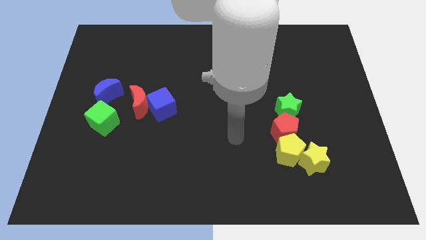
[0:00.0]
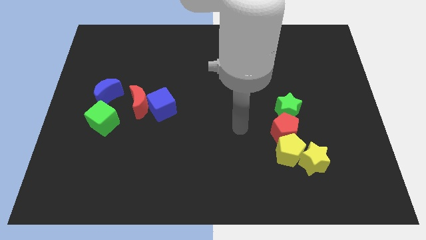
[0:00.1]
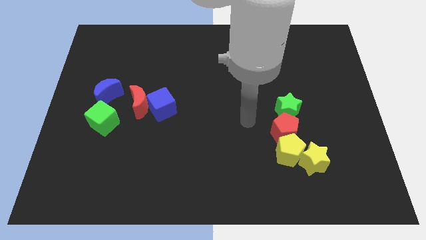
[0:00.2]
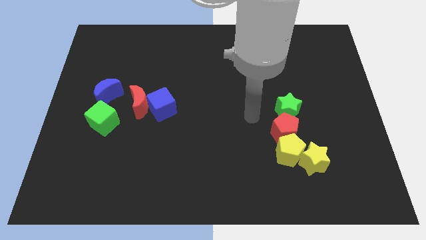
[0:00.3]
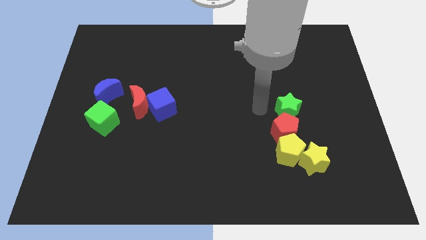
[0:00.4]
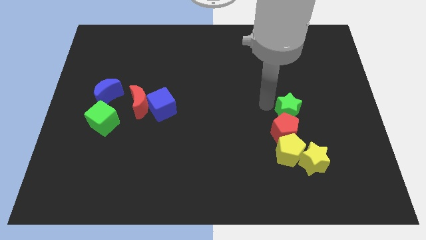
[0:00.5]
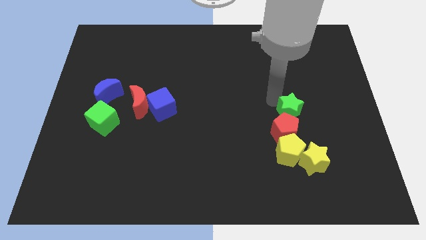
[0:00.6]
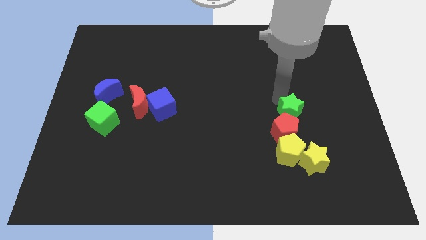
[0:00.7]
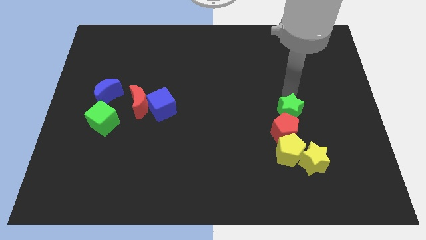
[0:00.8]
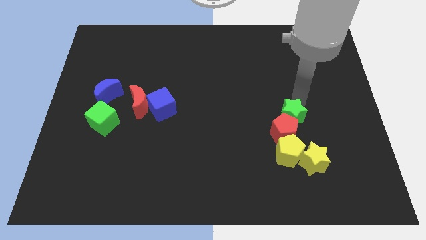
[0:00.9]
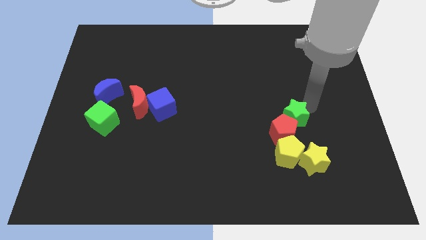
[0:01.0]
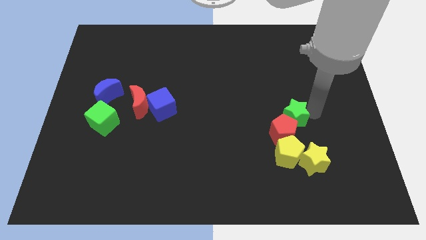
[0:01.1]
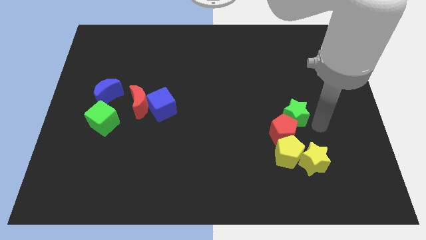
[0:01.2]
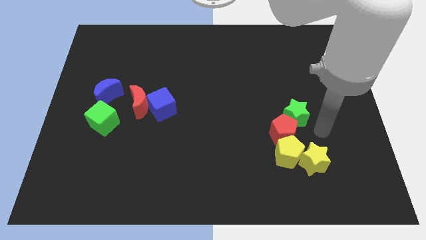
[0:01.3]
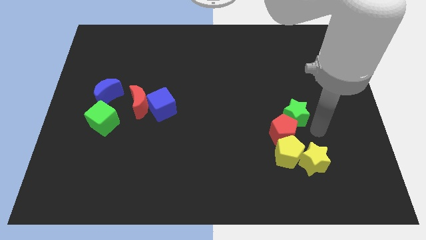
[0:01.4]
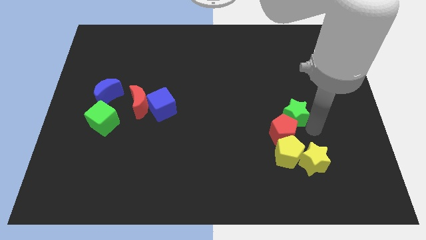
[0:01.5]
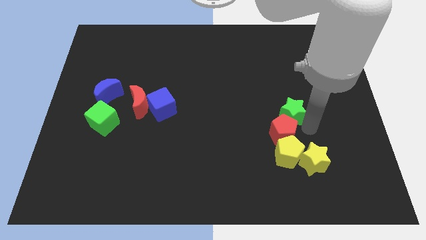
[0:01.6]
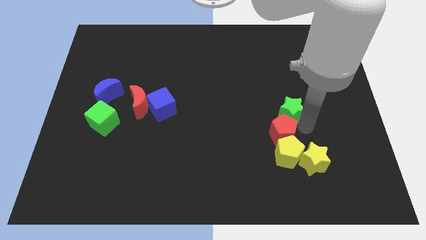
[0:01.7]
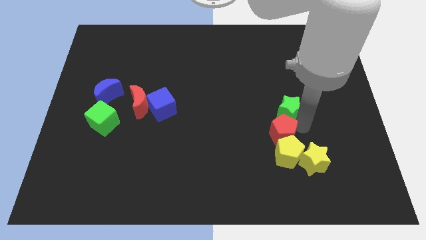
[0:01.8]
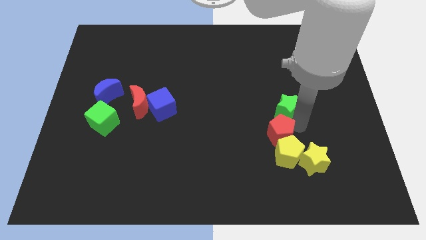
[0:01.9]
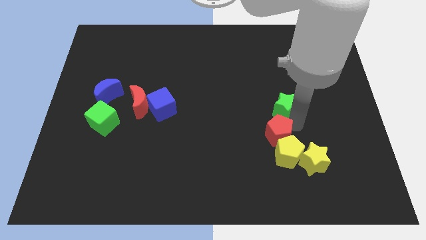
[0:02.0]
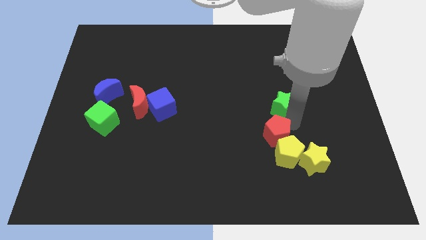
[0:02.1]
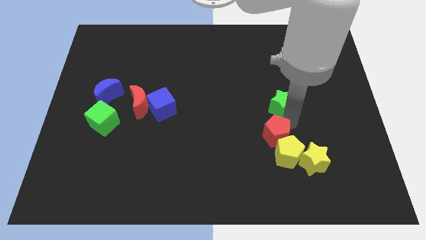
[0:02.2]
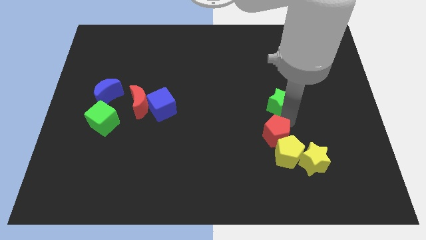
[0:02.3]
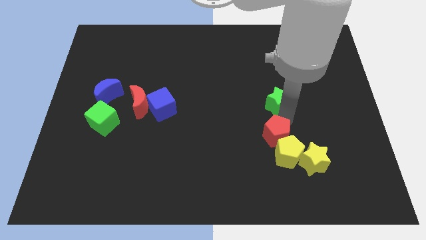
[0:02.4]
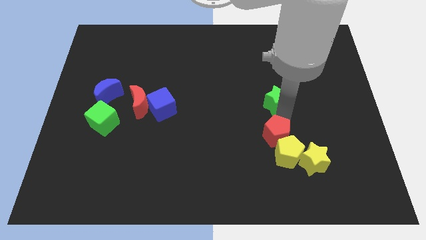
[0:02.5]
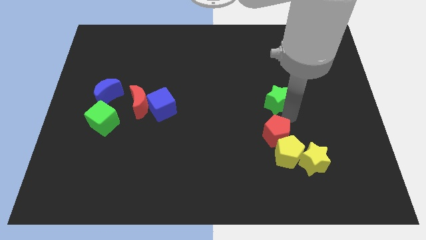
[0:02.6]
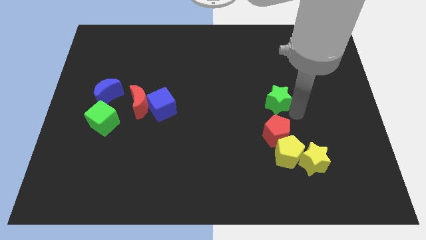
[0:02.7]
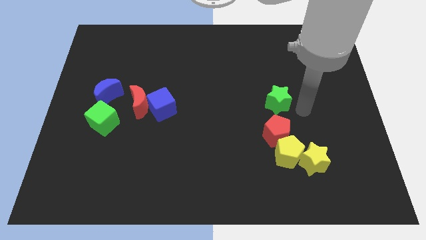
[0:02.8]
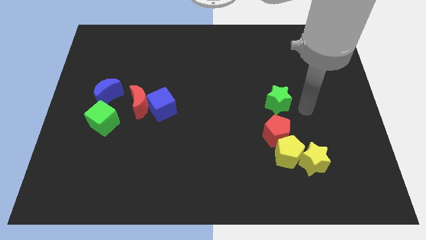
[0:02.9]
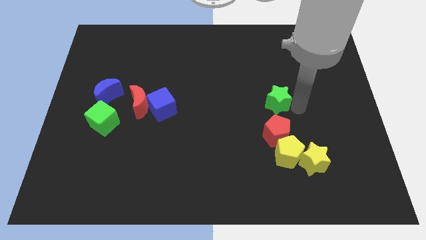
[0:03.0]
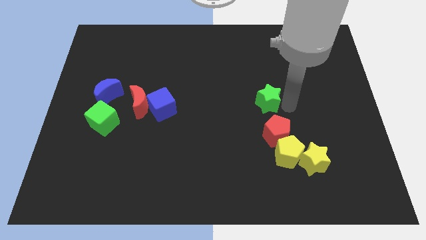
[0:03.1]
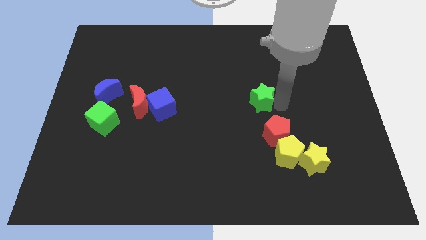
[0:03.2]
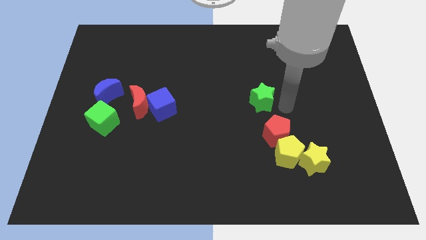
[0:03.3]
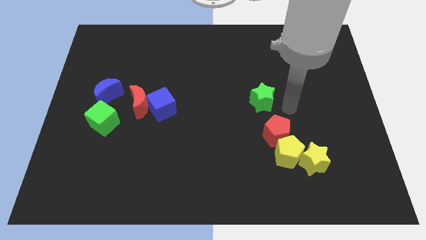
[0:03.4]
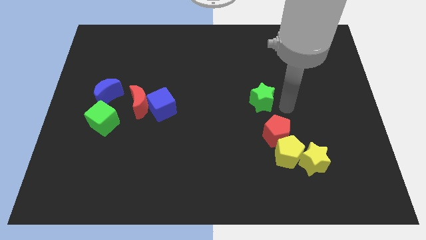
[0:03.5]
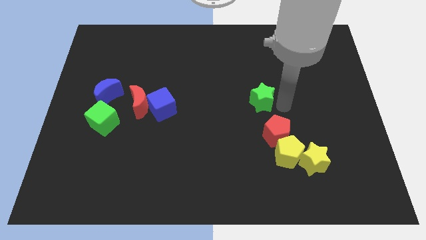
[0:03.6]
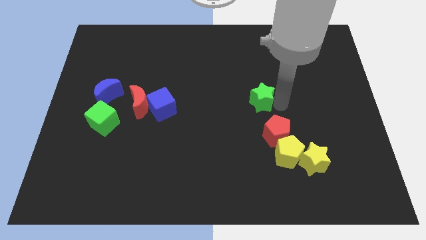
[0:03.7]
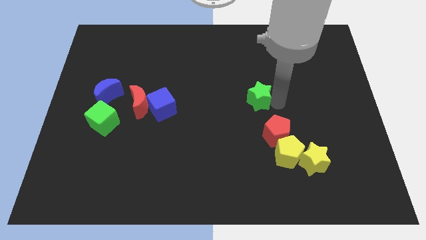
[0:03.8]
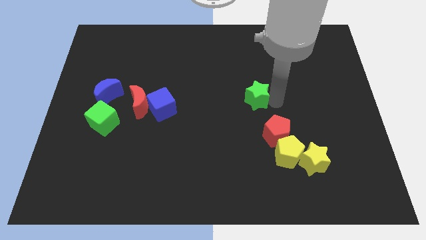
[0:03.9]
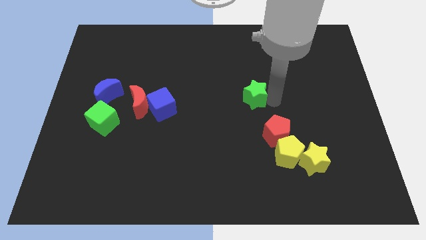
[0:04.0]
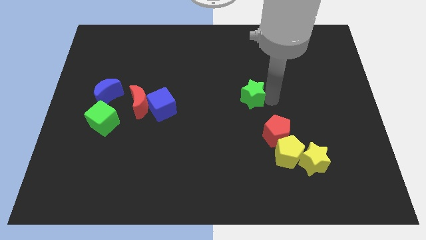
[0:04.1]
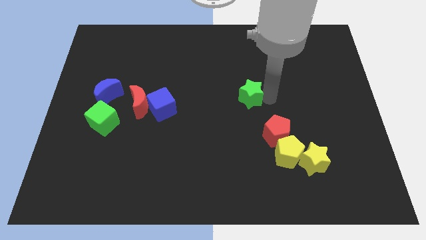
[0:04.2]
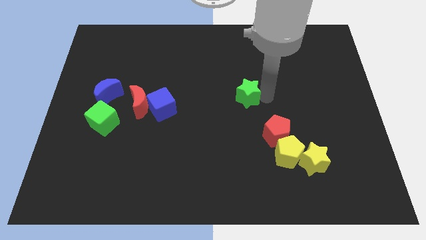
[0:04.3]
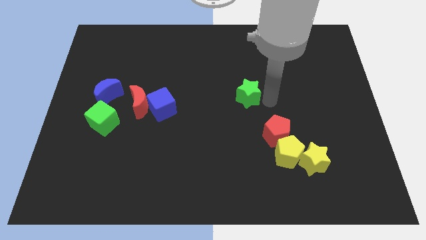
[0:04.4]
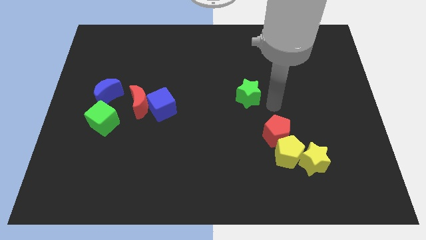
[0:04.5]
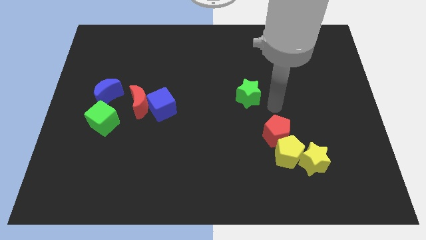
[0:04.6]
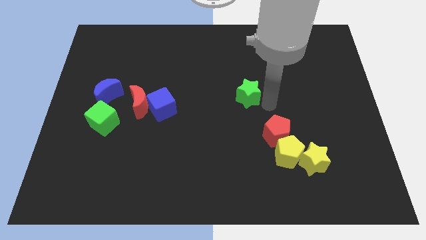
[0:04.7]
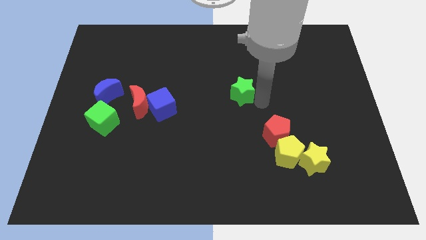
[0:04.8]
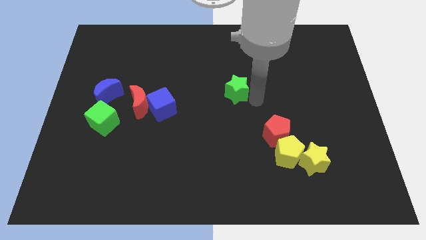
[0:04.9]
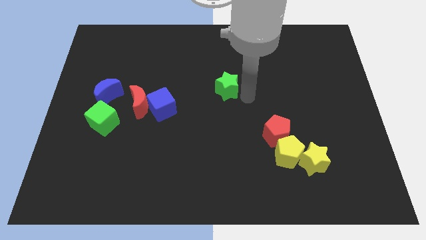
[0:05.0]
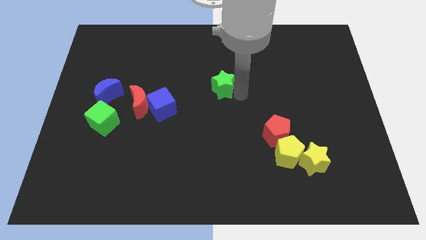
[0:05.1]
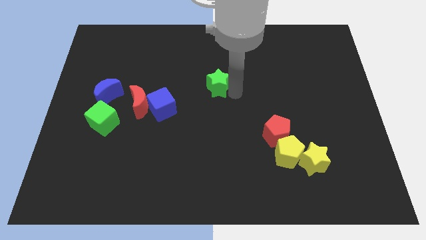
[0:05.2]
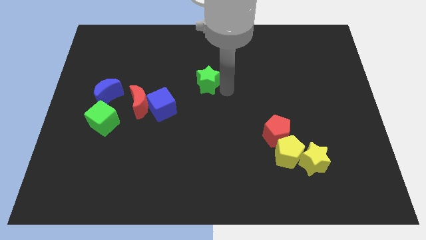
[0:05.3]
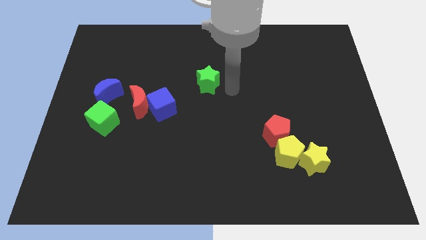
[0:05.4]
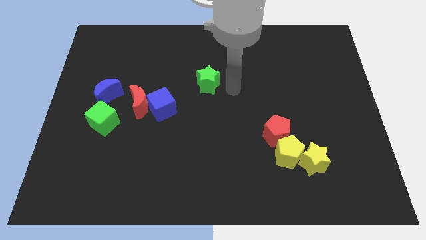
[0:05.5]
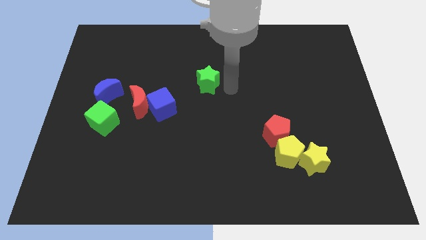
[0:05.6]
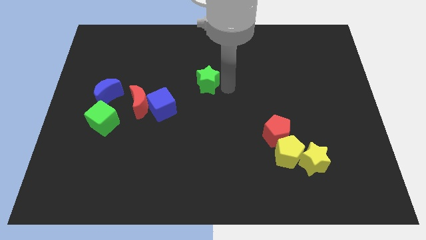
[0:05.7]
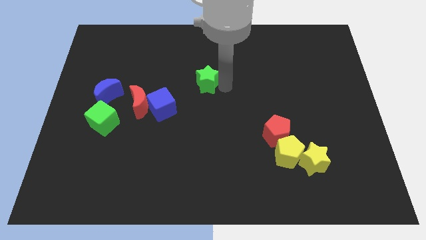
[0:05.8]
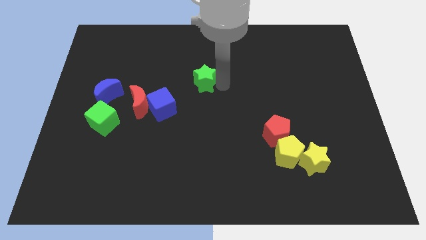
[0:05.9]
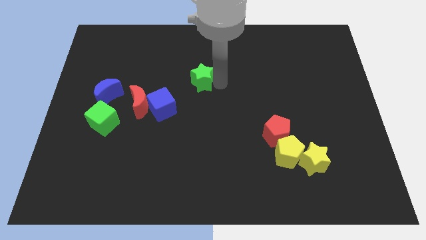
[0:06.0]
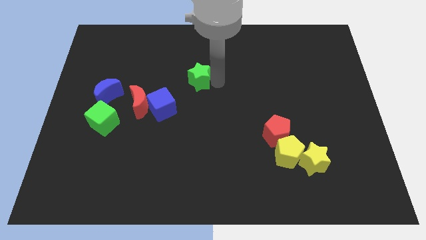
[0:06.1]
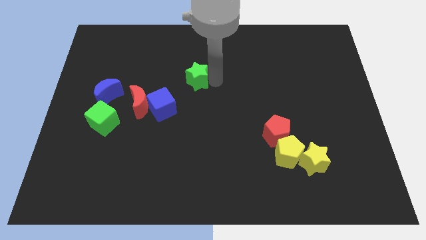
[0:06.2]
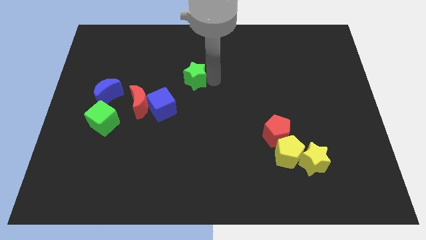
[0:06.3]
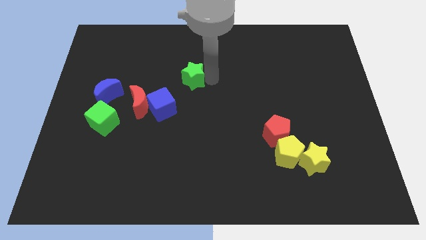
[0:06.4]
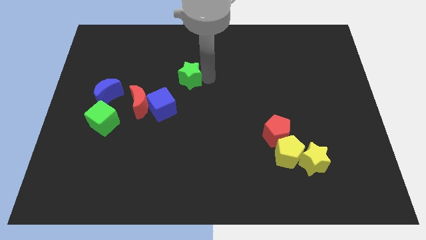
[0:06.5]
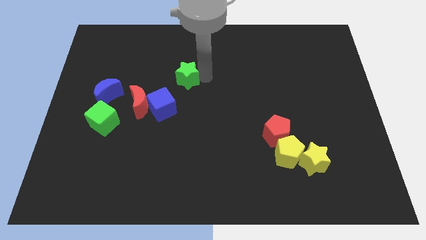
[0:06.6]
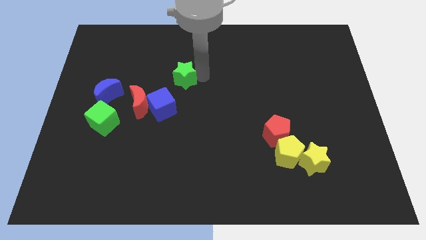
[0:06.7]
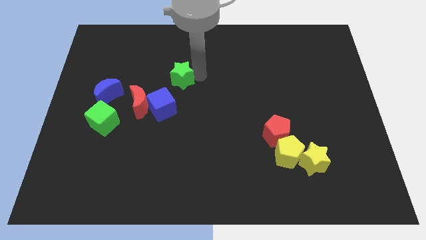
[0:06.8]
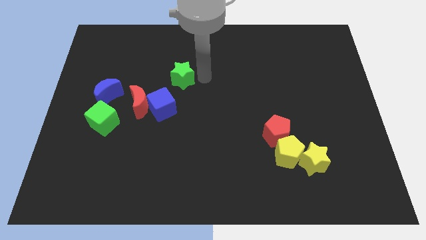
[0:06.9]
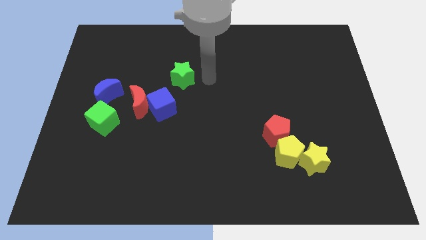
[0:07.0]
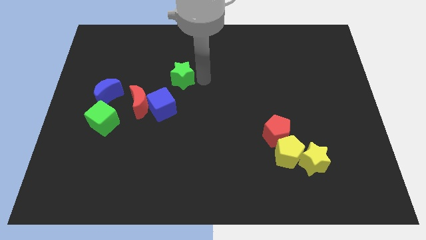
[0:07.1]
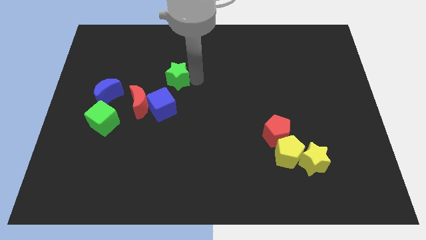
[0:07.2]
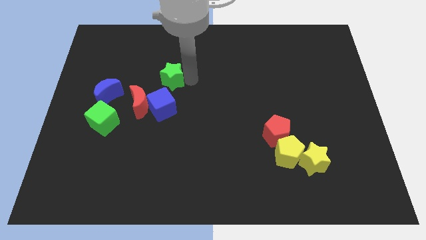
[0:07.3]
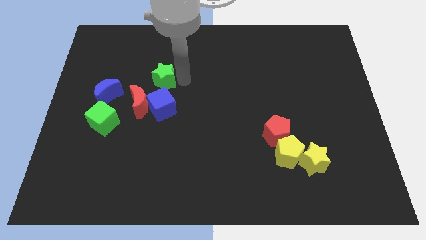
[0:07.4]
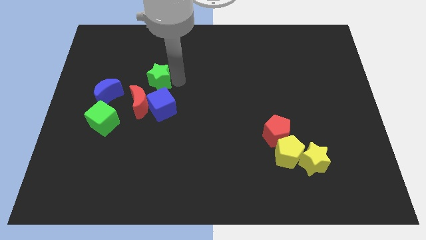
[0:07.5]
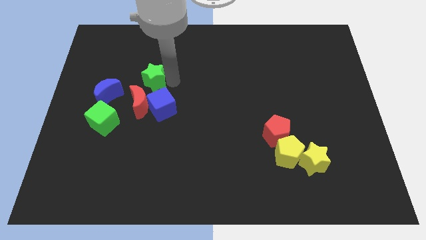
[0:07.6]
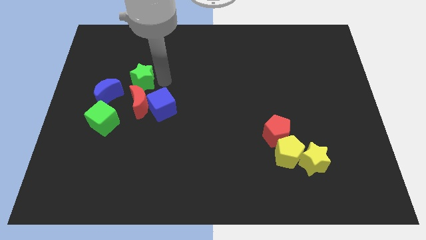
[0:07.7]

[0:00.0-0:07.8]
push the green star to the top left side of the red moon
